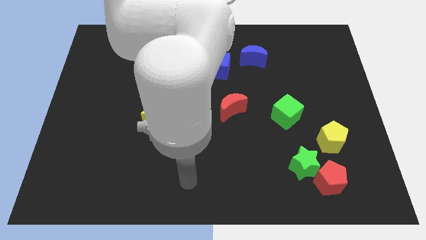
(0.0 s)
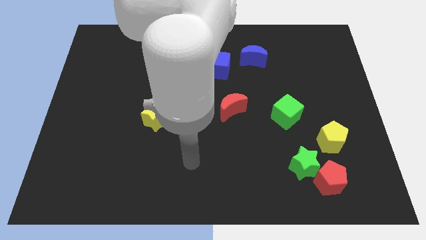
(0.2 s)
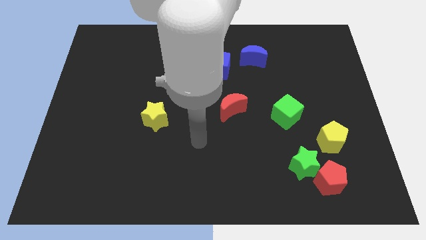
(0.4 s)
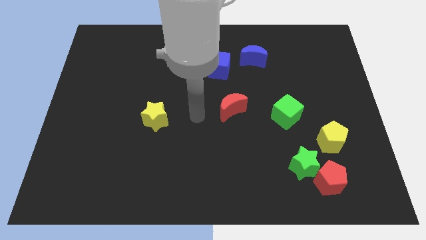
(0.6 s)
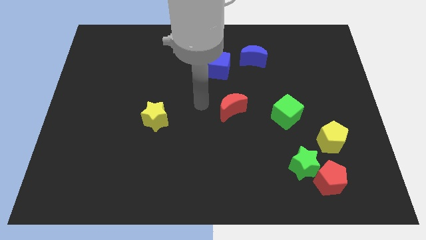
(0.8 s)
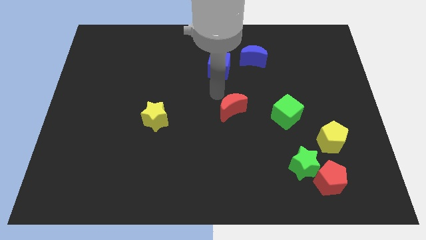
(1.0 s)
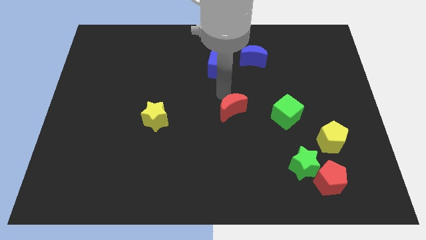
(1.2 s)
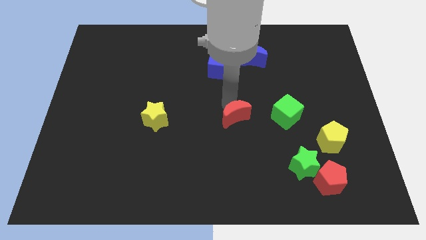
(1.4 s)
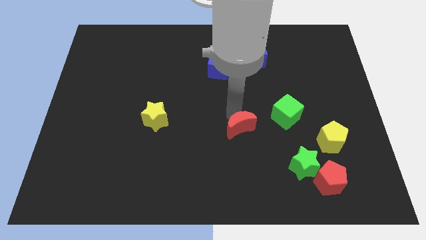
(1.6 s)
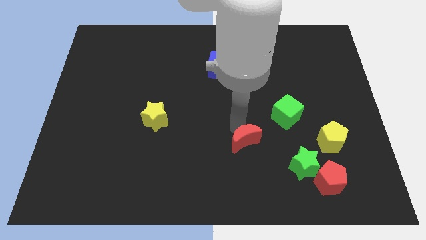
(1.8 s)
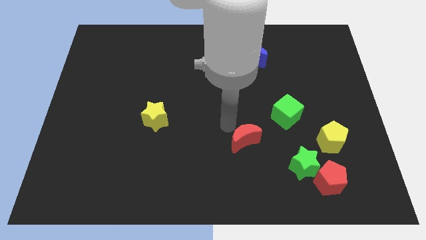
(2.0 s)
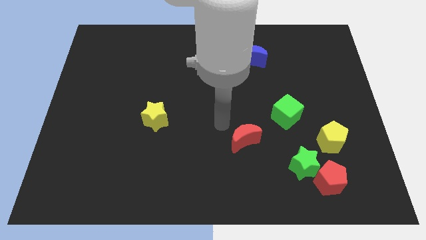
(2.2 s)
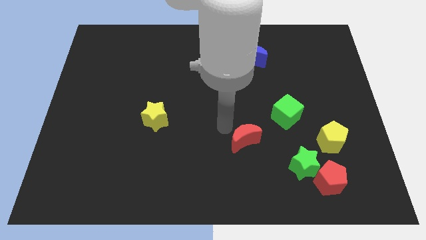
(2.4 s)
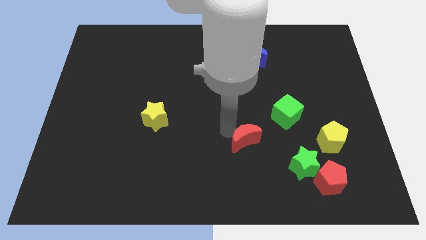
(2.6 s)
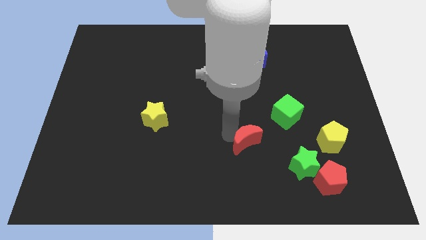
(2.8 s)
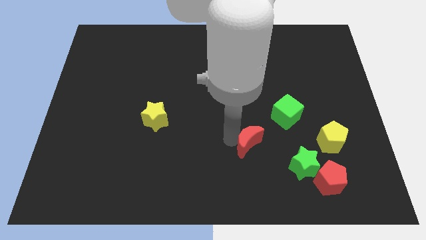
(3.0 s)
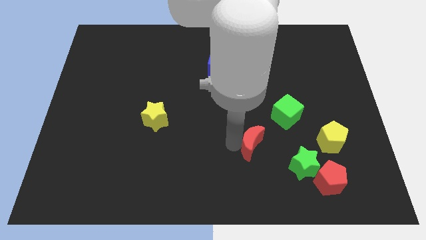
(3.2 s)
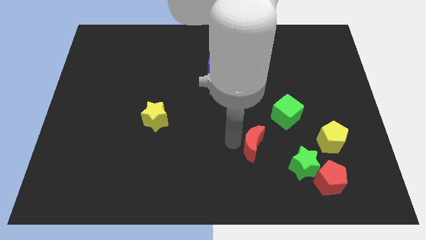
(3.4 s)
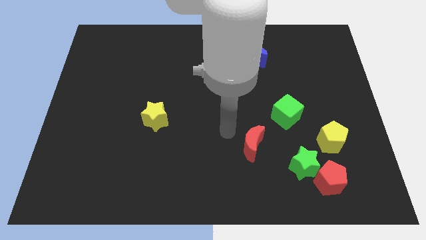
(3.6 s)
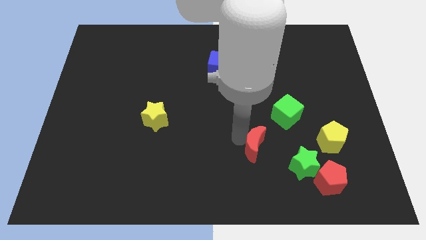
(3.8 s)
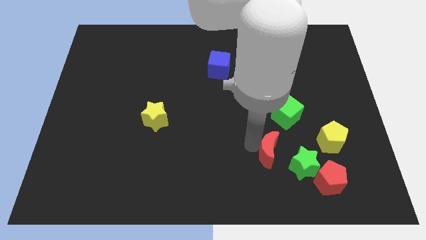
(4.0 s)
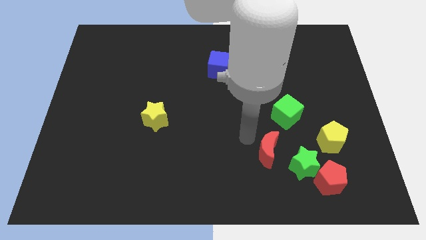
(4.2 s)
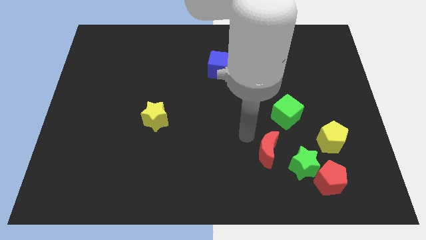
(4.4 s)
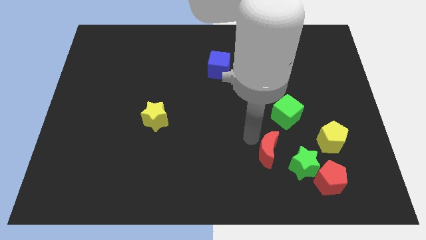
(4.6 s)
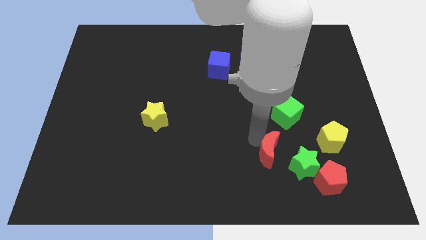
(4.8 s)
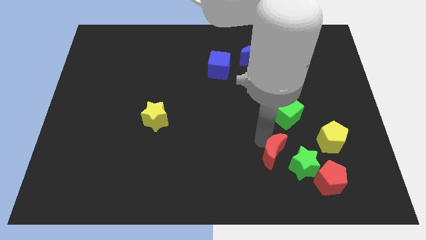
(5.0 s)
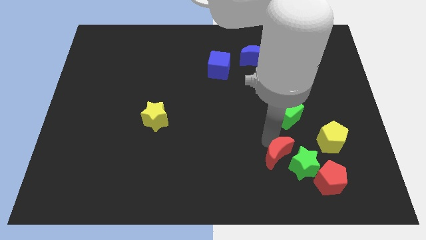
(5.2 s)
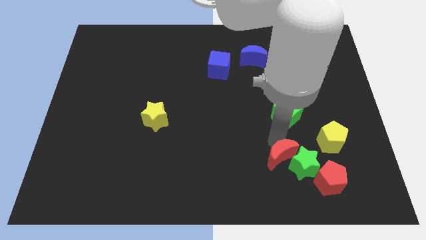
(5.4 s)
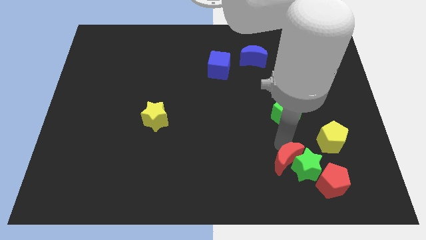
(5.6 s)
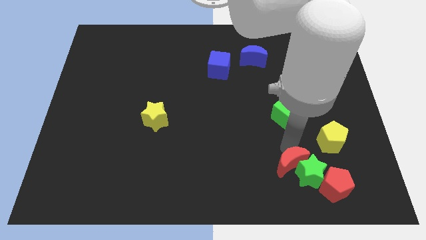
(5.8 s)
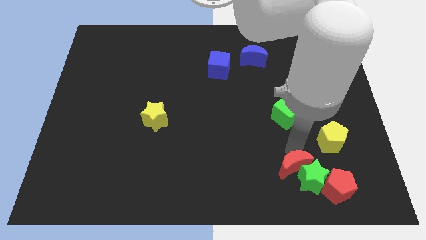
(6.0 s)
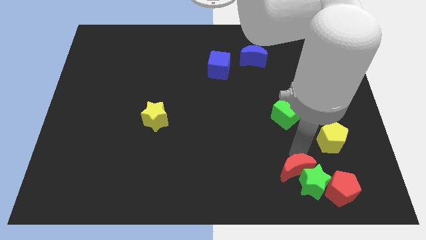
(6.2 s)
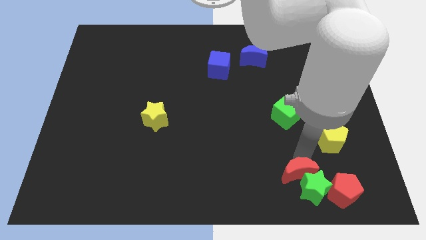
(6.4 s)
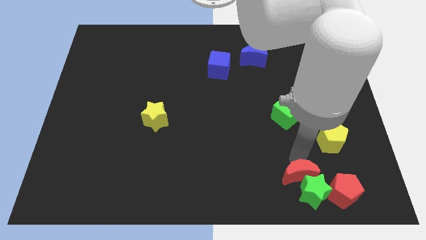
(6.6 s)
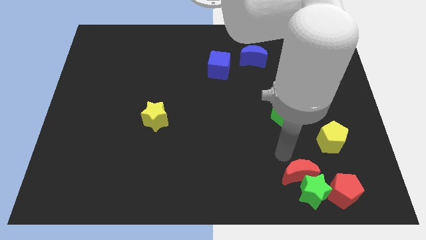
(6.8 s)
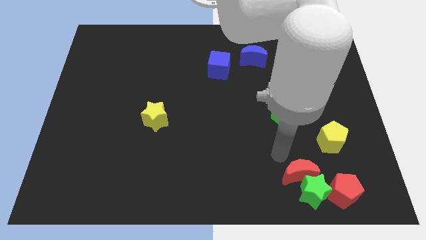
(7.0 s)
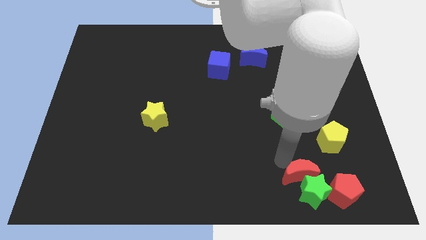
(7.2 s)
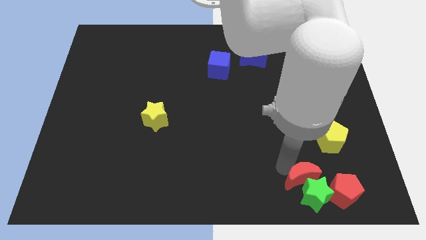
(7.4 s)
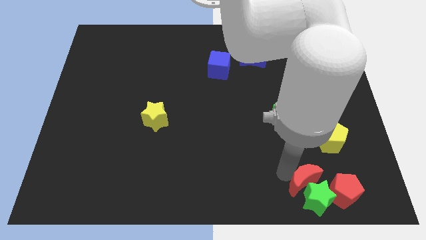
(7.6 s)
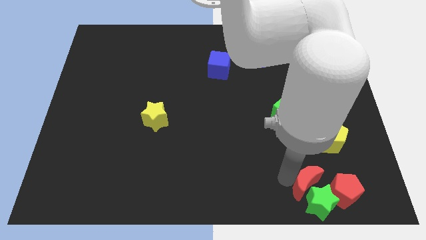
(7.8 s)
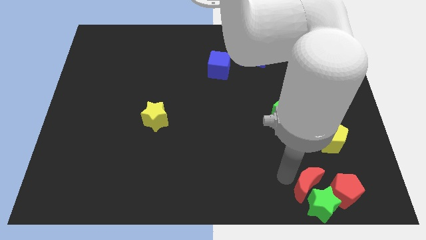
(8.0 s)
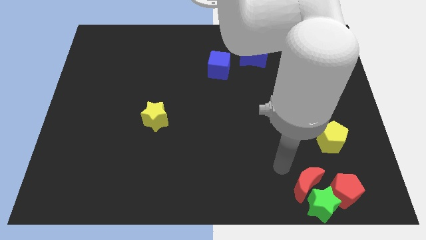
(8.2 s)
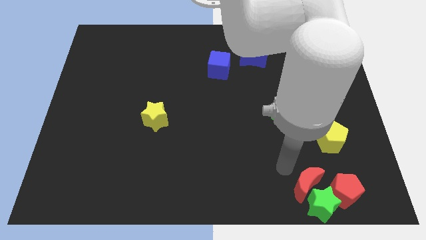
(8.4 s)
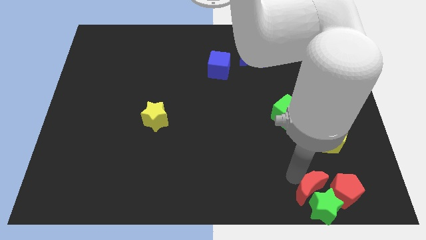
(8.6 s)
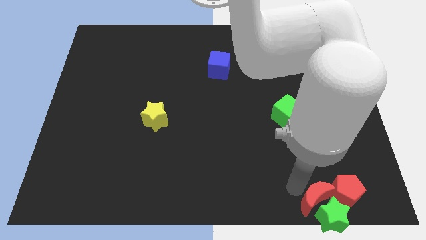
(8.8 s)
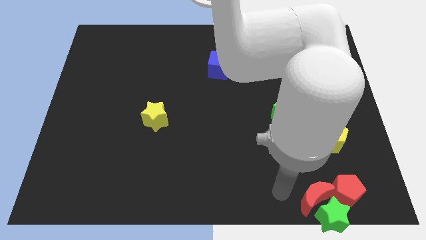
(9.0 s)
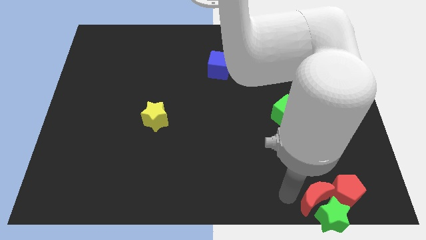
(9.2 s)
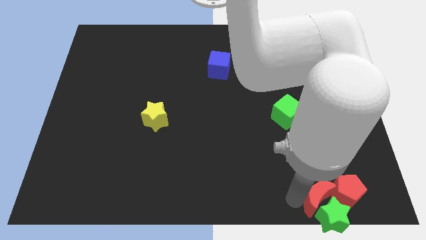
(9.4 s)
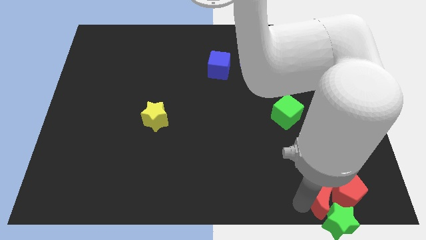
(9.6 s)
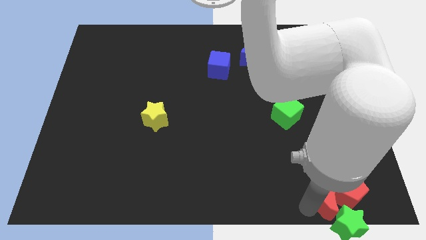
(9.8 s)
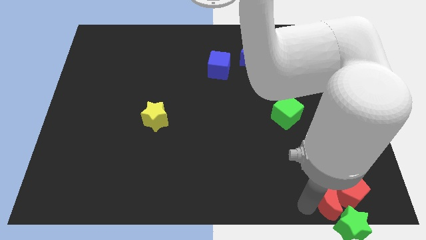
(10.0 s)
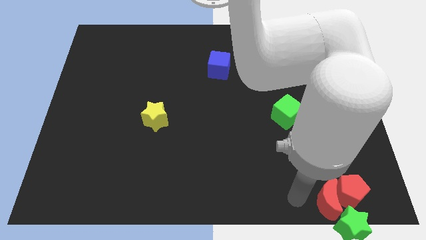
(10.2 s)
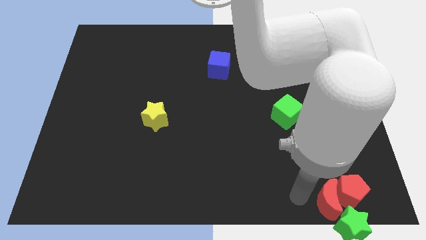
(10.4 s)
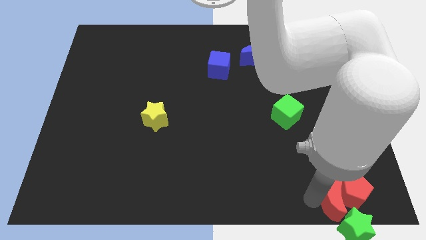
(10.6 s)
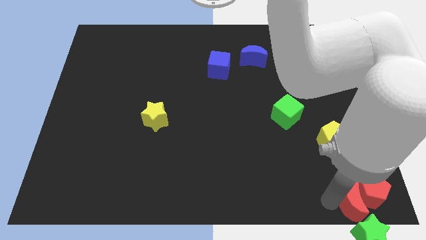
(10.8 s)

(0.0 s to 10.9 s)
move the red moon to the bottom right

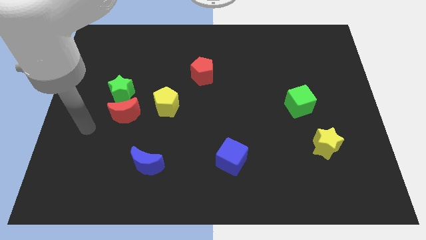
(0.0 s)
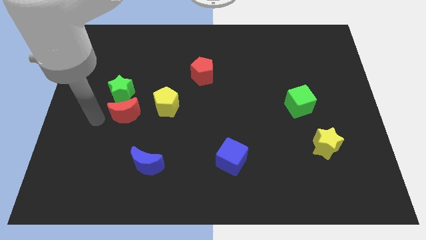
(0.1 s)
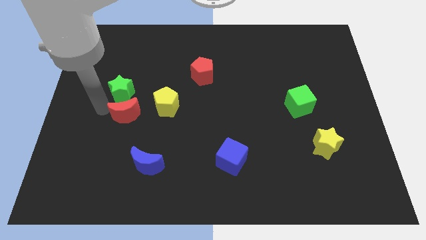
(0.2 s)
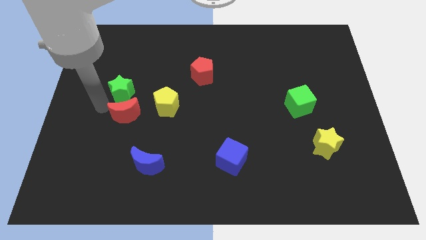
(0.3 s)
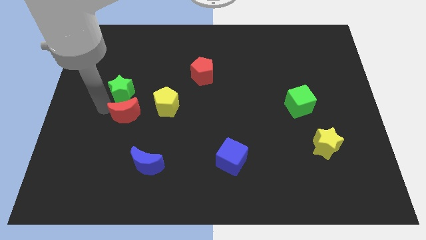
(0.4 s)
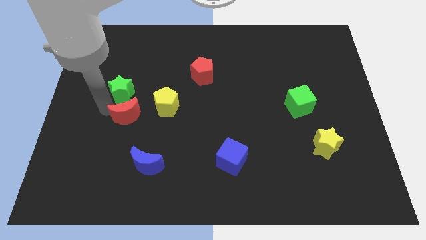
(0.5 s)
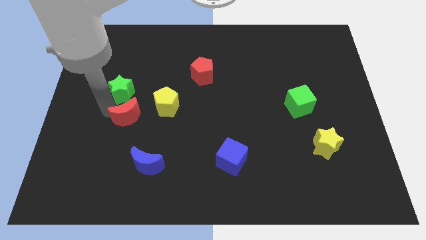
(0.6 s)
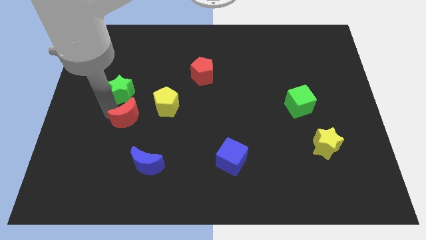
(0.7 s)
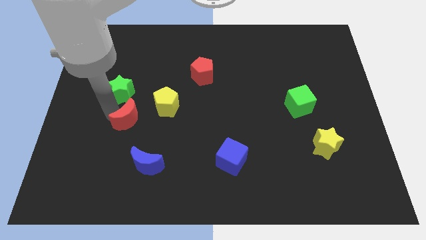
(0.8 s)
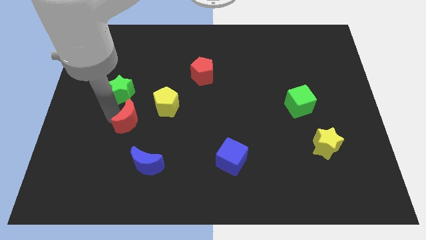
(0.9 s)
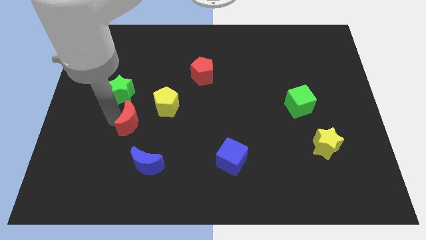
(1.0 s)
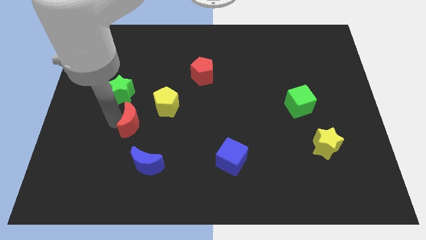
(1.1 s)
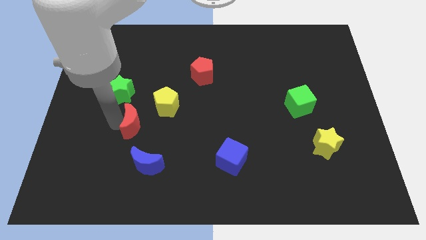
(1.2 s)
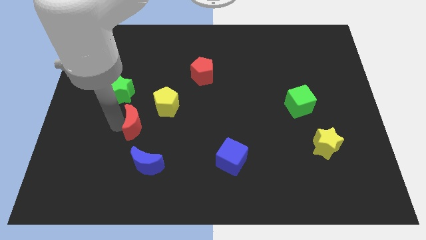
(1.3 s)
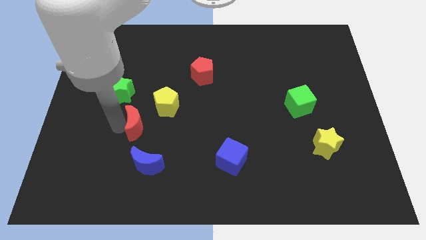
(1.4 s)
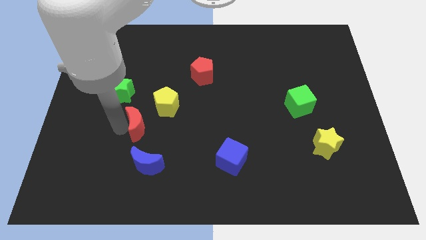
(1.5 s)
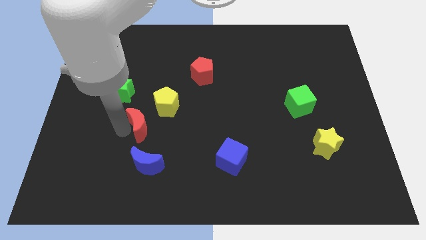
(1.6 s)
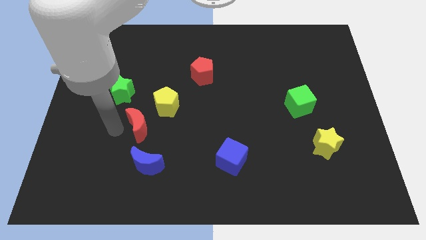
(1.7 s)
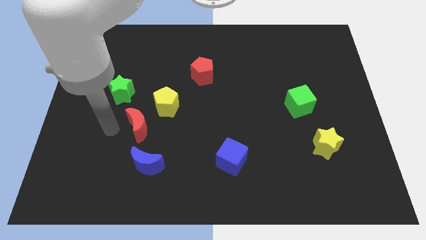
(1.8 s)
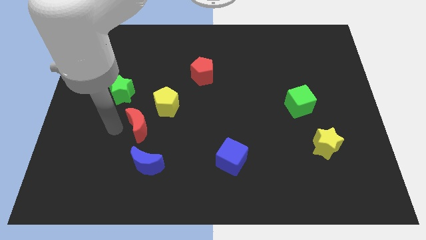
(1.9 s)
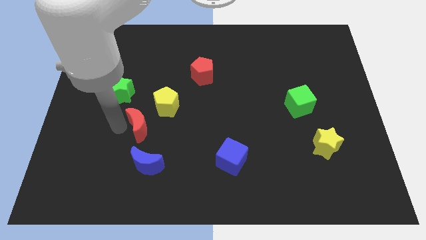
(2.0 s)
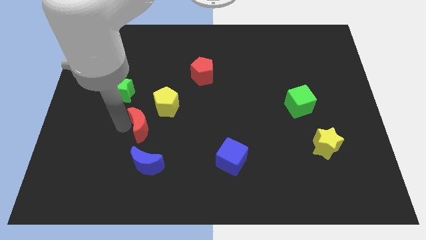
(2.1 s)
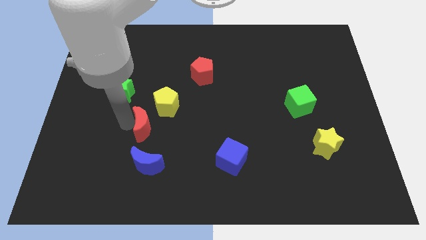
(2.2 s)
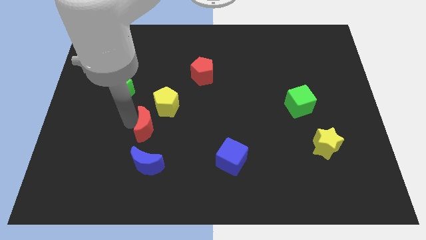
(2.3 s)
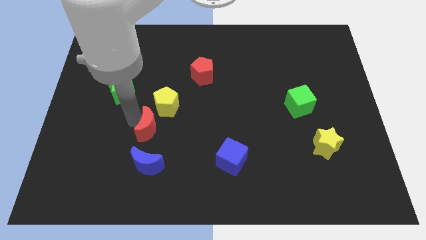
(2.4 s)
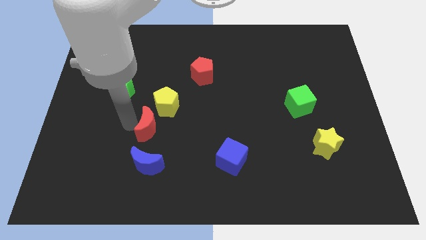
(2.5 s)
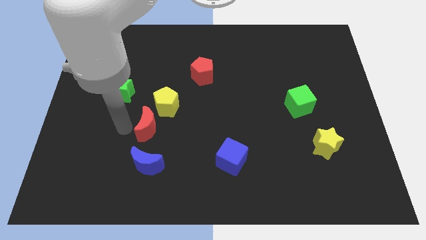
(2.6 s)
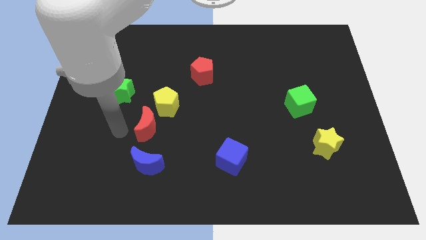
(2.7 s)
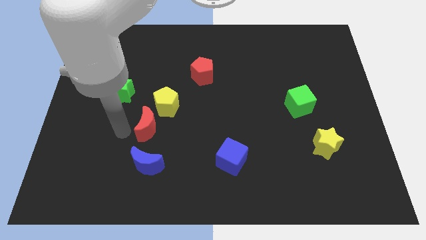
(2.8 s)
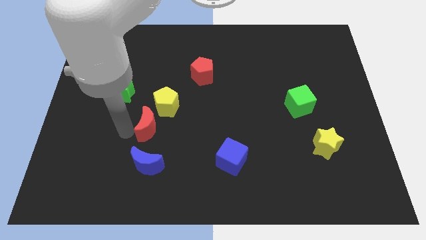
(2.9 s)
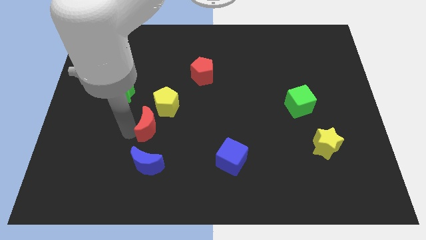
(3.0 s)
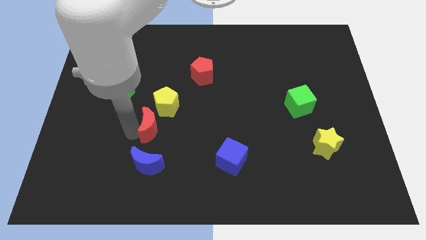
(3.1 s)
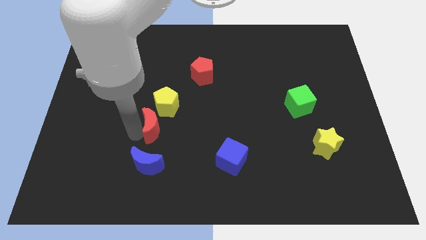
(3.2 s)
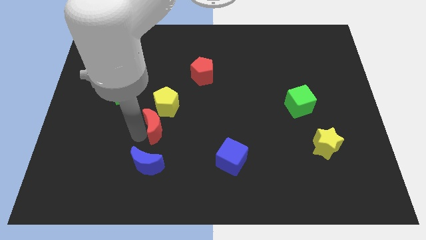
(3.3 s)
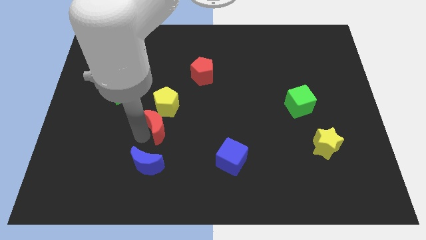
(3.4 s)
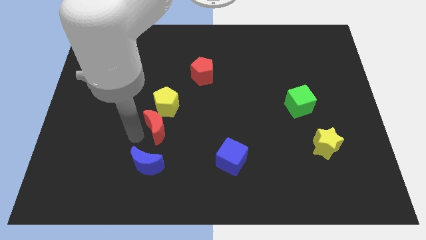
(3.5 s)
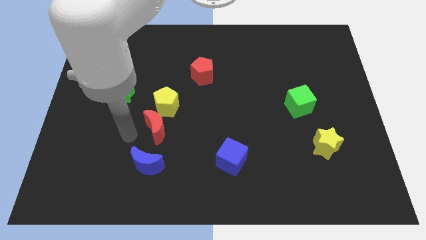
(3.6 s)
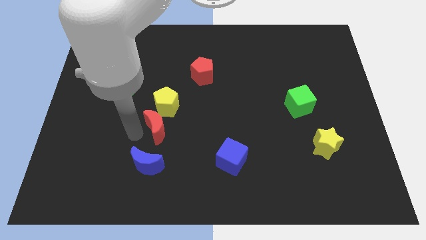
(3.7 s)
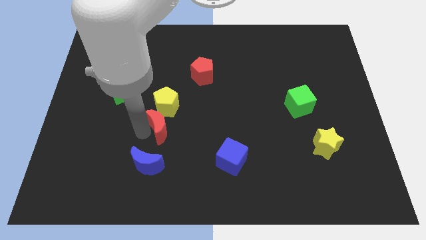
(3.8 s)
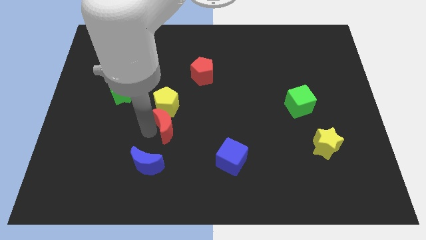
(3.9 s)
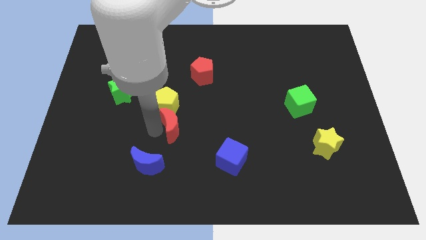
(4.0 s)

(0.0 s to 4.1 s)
move the red moon to the center of the board
